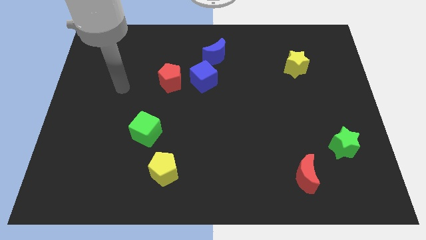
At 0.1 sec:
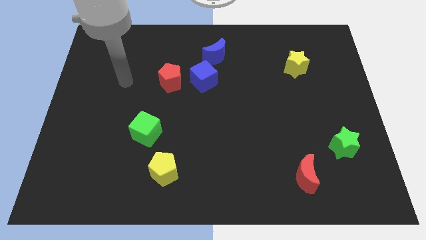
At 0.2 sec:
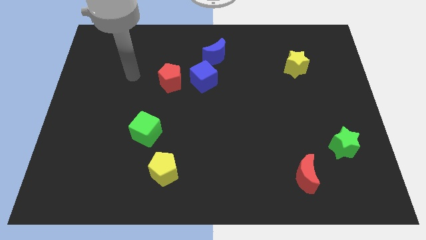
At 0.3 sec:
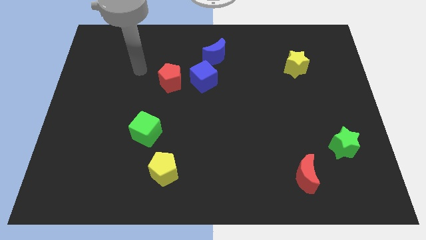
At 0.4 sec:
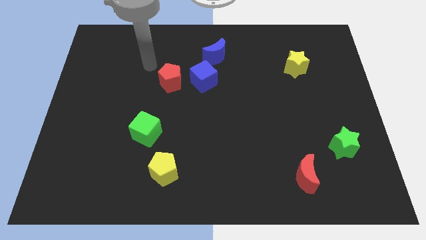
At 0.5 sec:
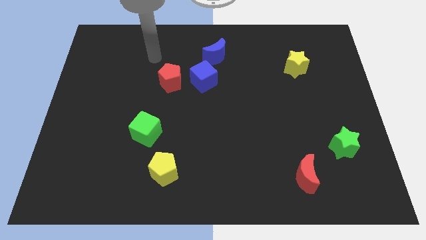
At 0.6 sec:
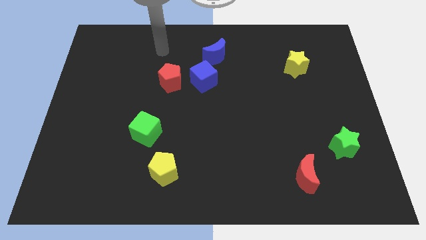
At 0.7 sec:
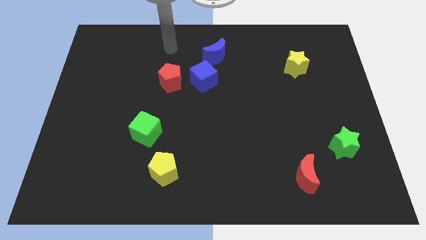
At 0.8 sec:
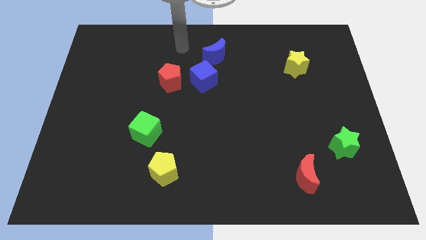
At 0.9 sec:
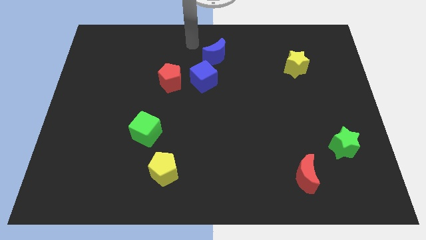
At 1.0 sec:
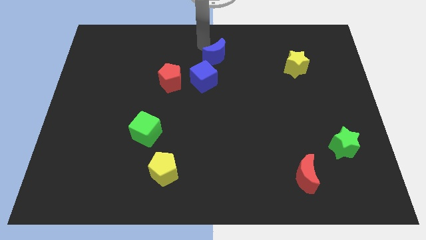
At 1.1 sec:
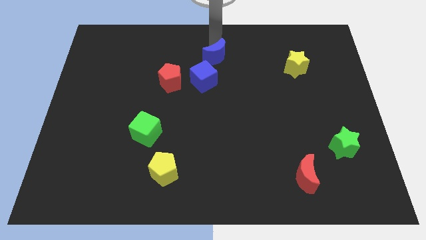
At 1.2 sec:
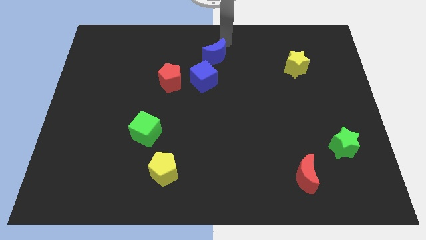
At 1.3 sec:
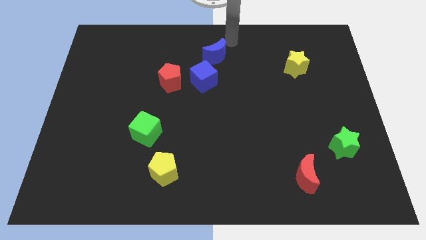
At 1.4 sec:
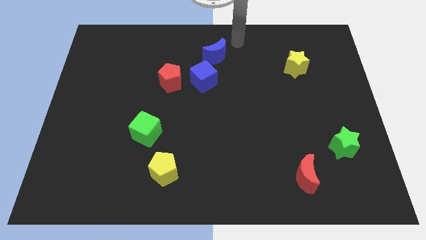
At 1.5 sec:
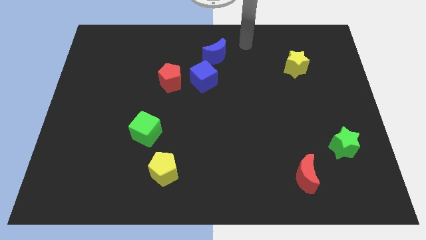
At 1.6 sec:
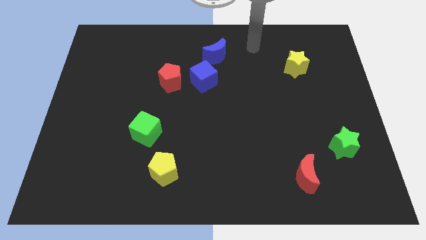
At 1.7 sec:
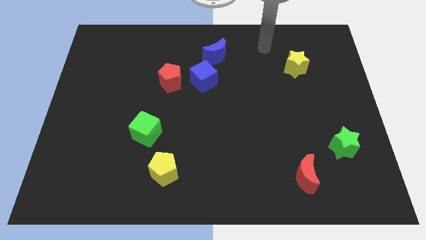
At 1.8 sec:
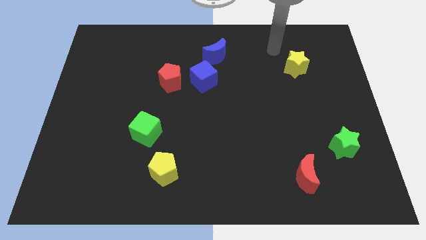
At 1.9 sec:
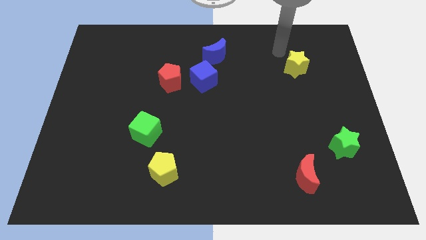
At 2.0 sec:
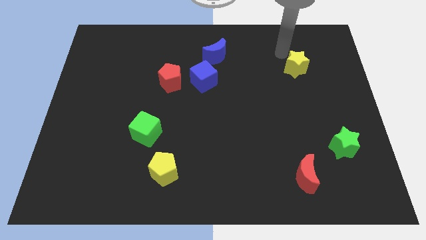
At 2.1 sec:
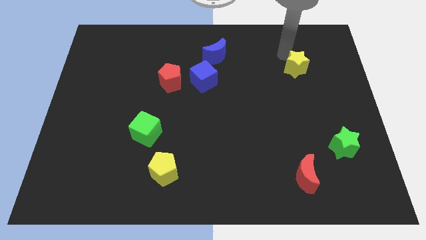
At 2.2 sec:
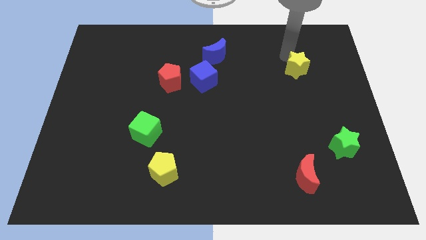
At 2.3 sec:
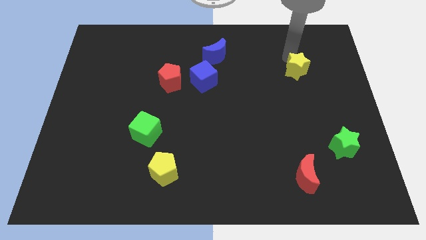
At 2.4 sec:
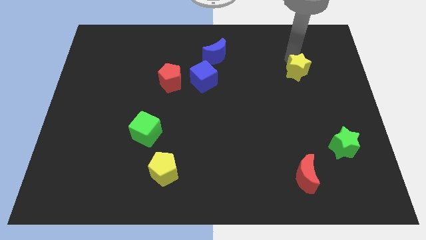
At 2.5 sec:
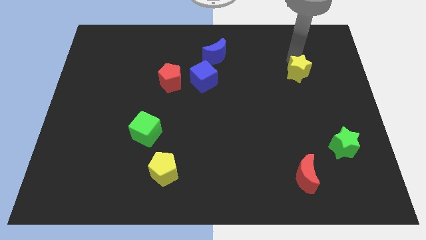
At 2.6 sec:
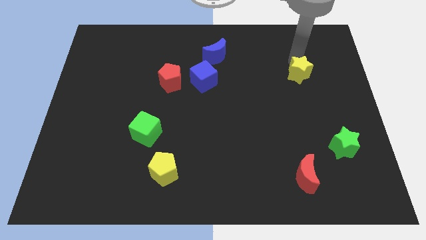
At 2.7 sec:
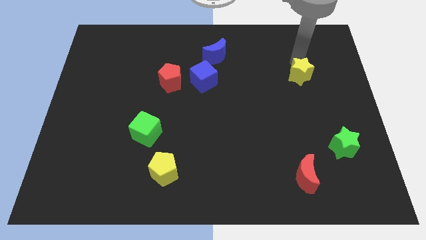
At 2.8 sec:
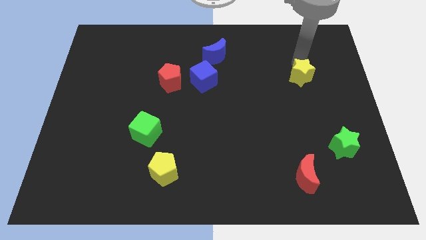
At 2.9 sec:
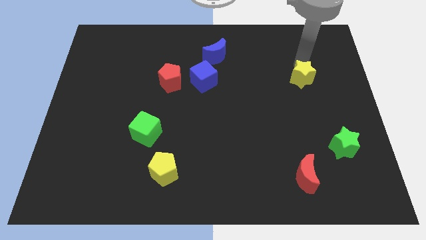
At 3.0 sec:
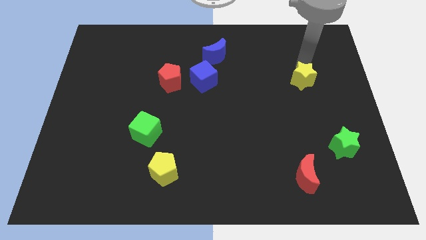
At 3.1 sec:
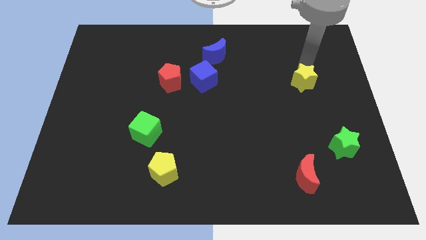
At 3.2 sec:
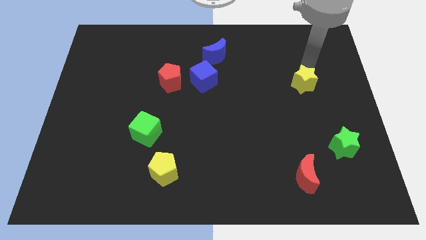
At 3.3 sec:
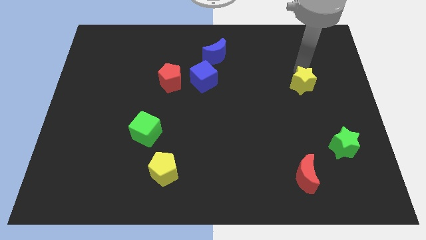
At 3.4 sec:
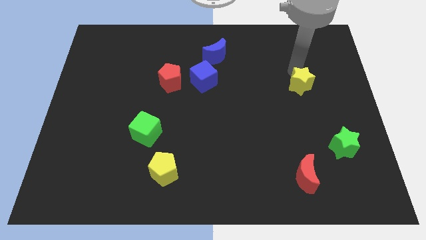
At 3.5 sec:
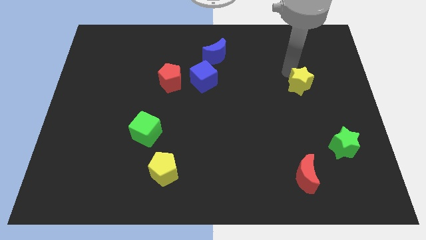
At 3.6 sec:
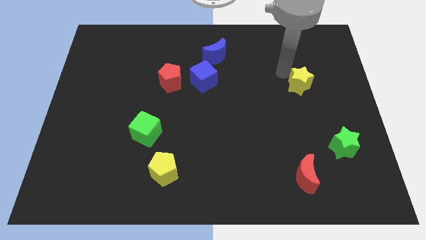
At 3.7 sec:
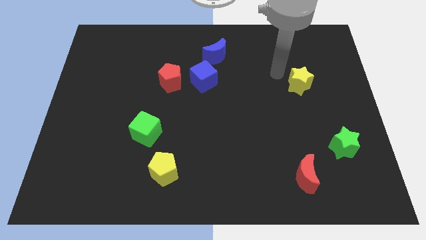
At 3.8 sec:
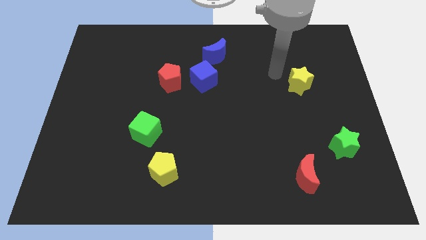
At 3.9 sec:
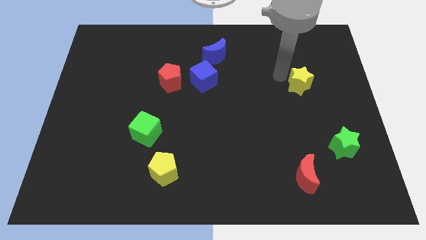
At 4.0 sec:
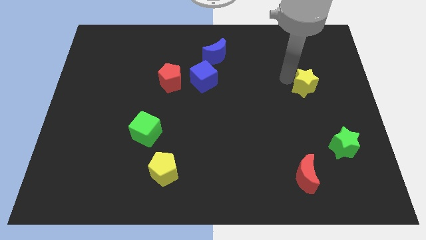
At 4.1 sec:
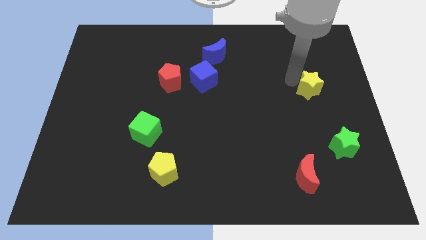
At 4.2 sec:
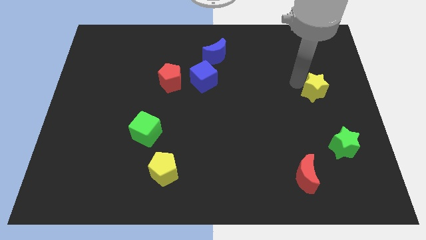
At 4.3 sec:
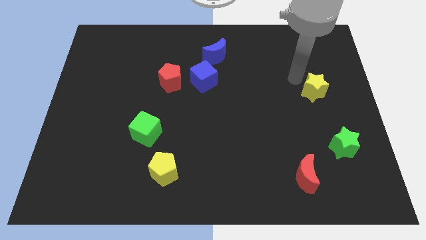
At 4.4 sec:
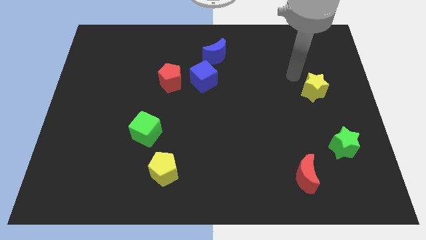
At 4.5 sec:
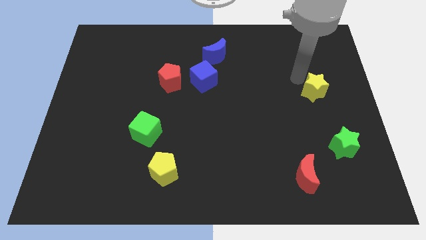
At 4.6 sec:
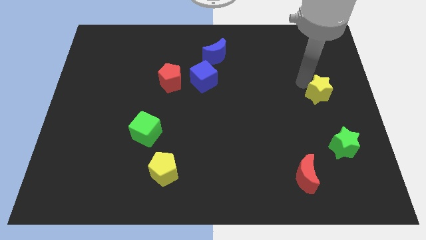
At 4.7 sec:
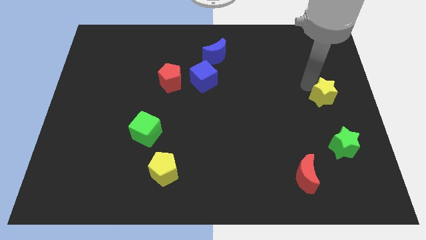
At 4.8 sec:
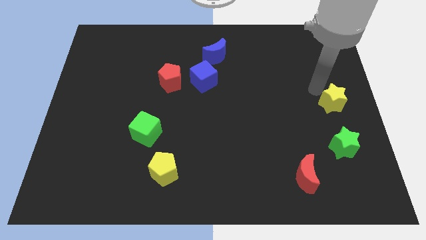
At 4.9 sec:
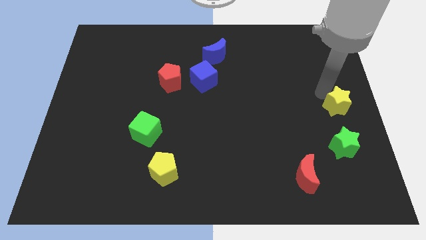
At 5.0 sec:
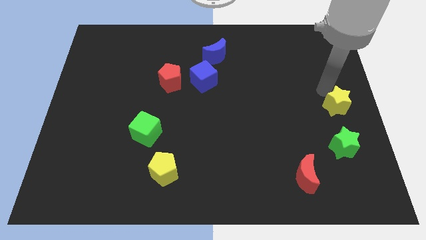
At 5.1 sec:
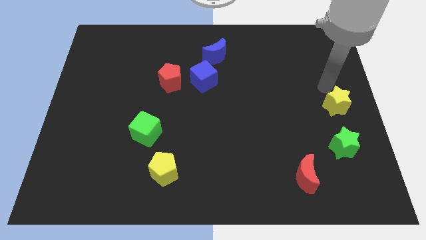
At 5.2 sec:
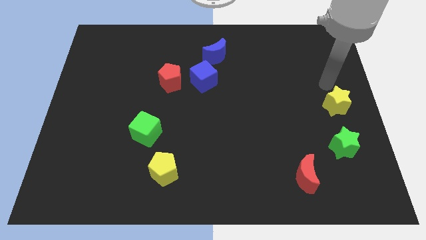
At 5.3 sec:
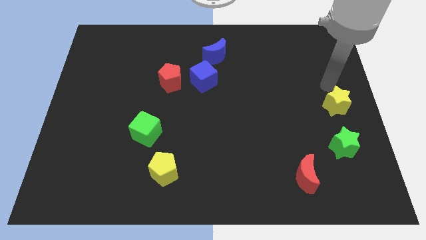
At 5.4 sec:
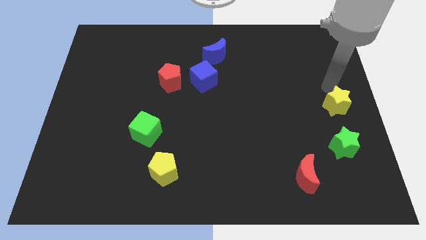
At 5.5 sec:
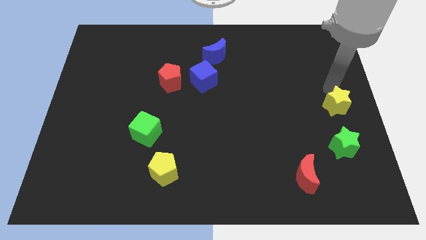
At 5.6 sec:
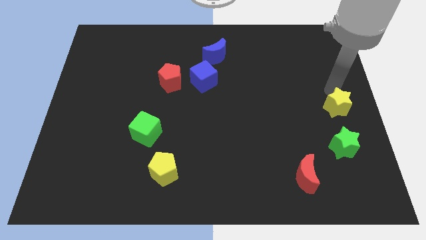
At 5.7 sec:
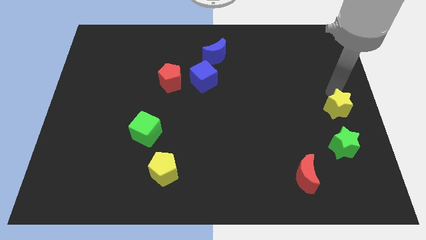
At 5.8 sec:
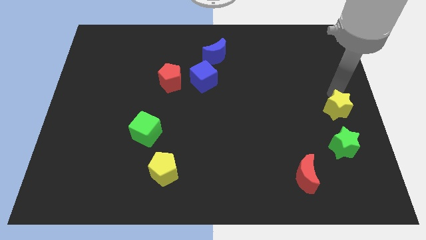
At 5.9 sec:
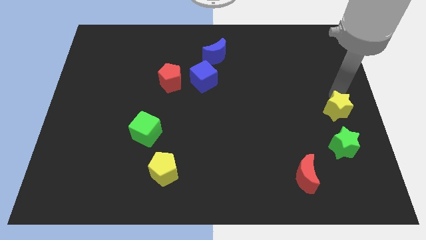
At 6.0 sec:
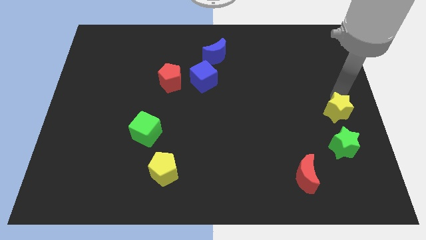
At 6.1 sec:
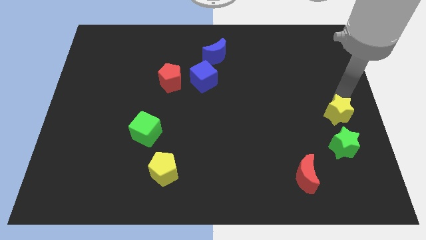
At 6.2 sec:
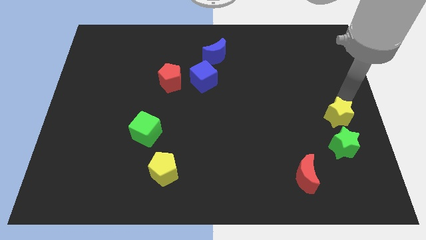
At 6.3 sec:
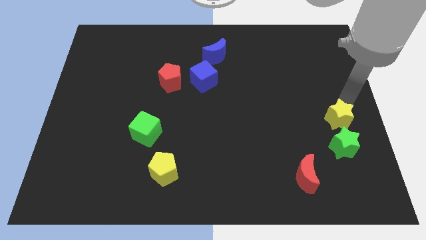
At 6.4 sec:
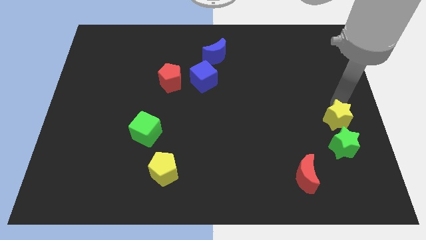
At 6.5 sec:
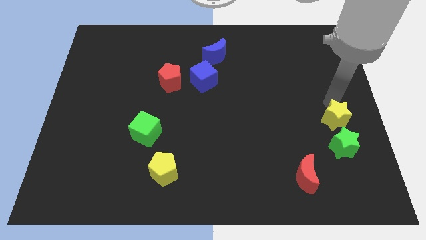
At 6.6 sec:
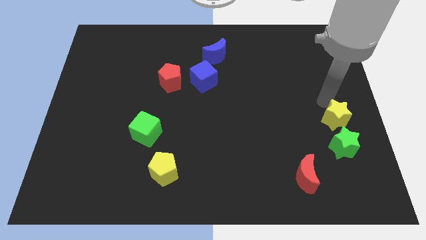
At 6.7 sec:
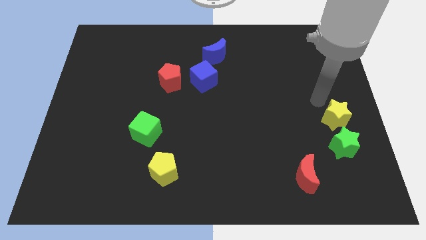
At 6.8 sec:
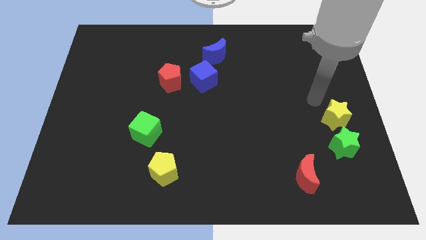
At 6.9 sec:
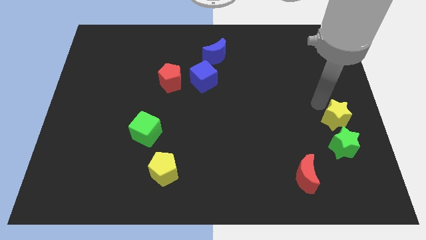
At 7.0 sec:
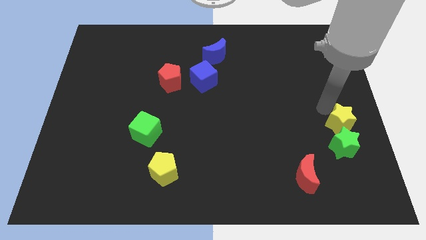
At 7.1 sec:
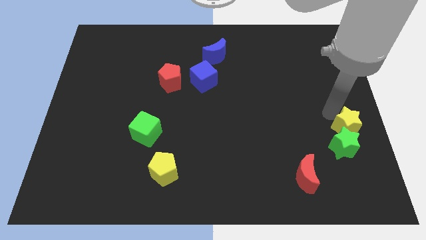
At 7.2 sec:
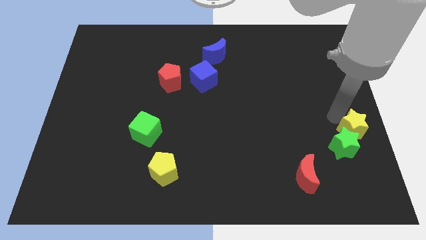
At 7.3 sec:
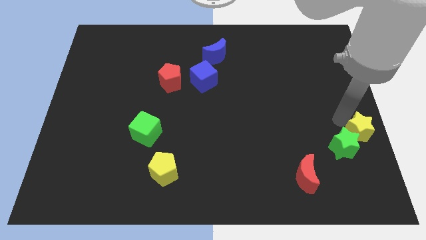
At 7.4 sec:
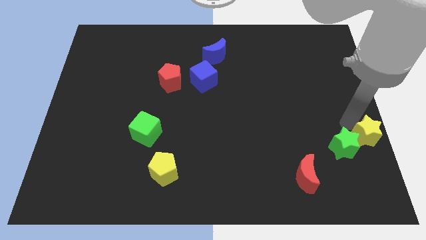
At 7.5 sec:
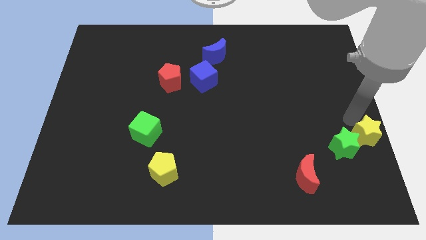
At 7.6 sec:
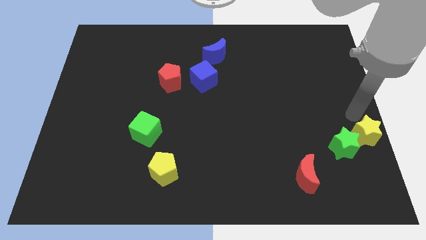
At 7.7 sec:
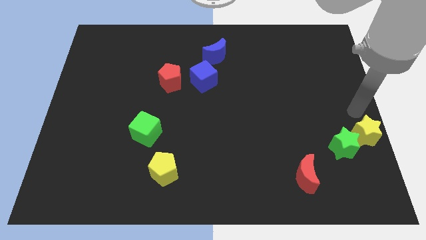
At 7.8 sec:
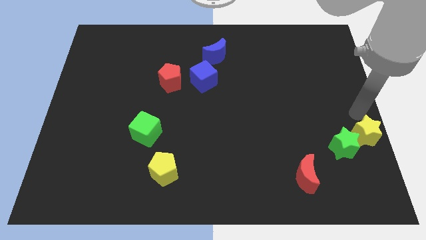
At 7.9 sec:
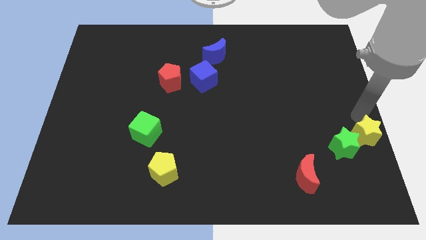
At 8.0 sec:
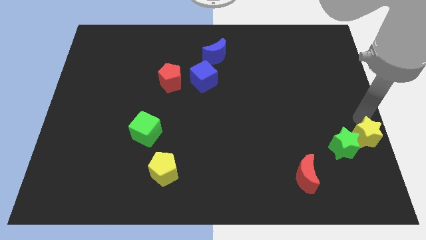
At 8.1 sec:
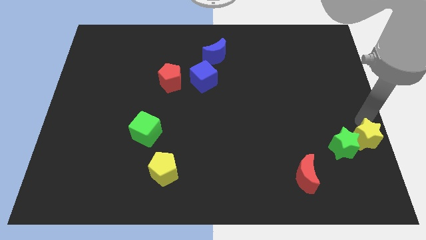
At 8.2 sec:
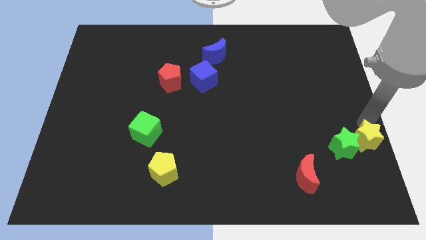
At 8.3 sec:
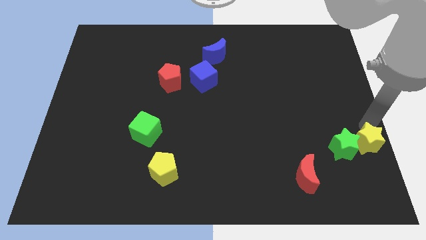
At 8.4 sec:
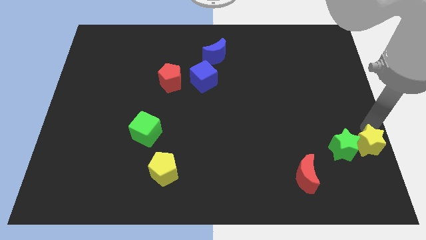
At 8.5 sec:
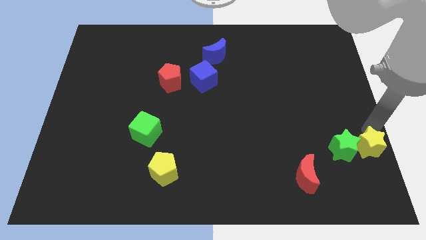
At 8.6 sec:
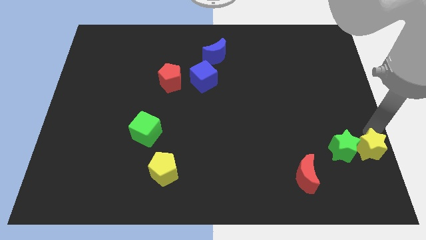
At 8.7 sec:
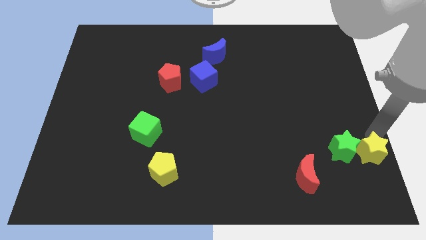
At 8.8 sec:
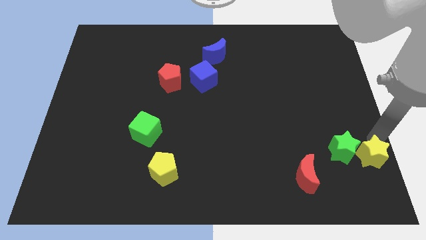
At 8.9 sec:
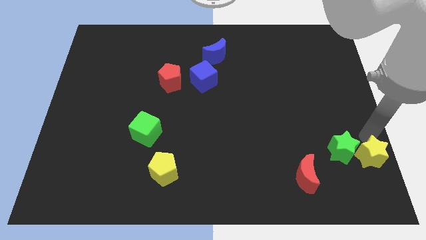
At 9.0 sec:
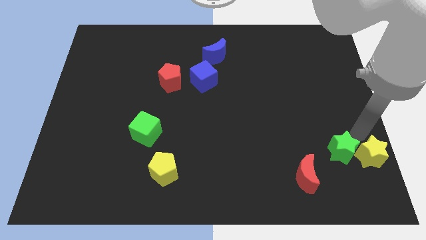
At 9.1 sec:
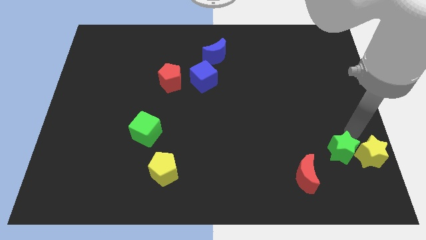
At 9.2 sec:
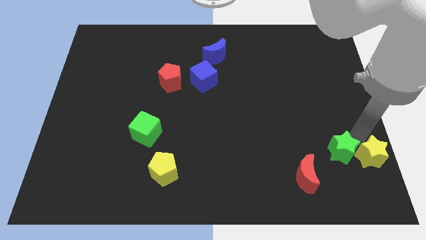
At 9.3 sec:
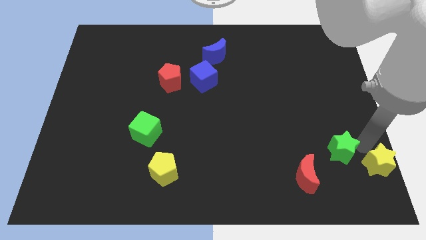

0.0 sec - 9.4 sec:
slide the yellow star to the lower right corner
